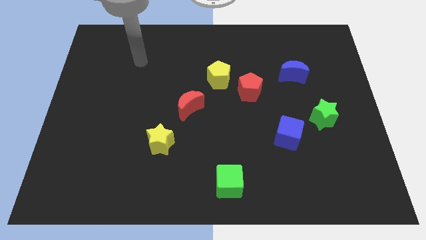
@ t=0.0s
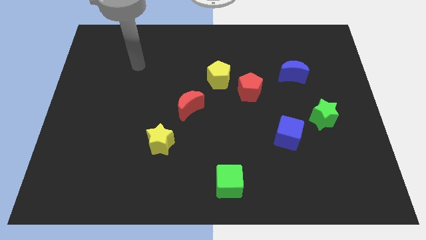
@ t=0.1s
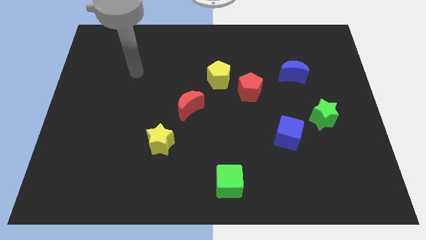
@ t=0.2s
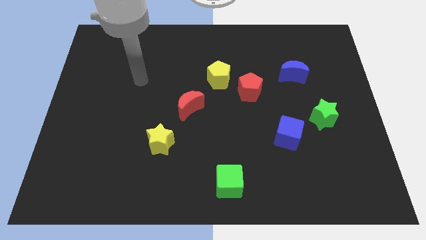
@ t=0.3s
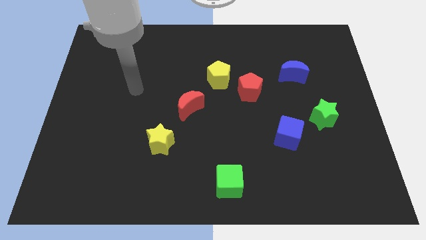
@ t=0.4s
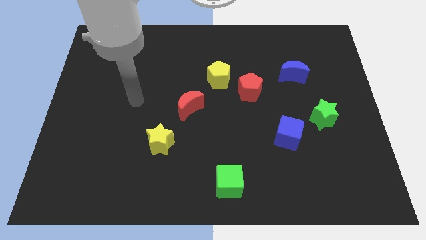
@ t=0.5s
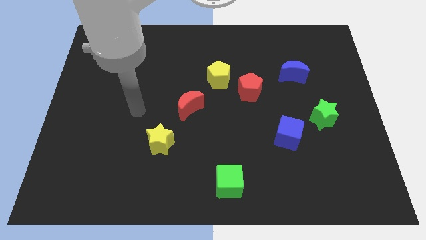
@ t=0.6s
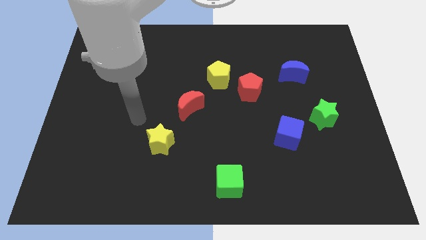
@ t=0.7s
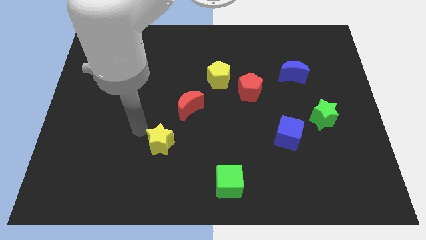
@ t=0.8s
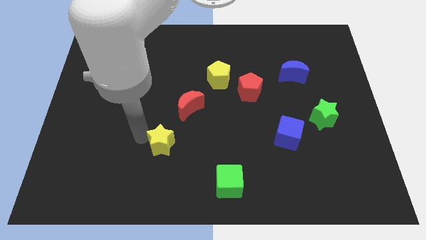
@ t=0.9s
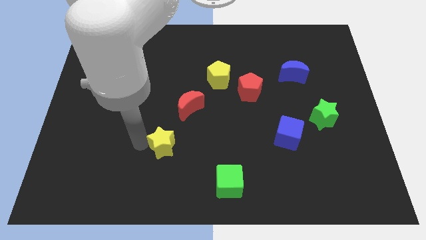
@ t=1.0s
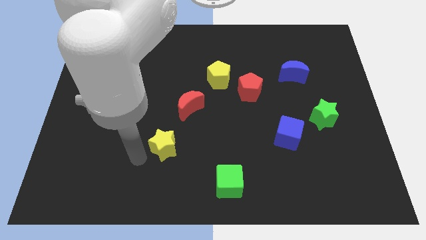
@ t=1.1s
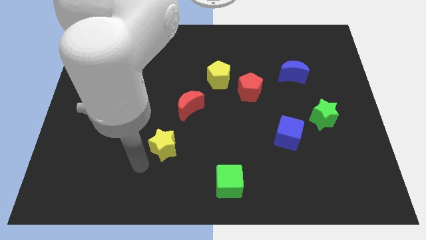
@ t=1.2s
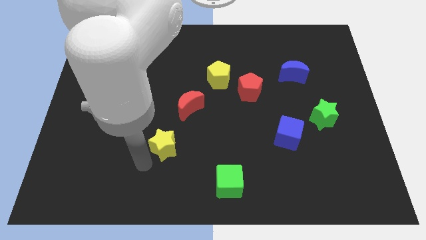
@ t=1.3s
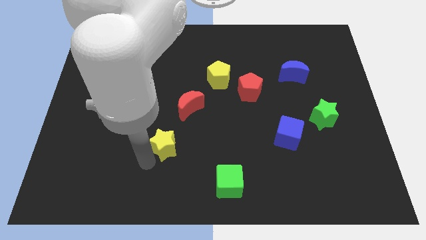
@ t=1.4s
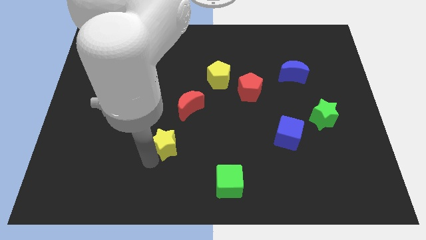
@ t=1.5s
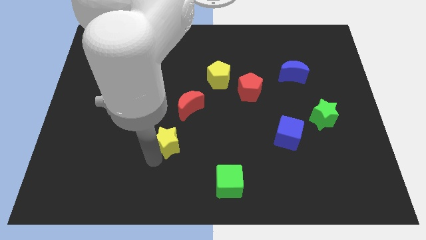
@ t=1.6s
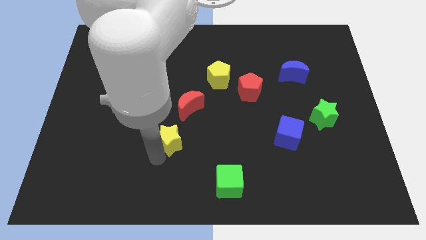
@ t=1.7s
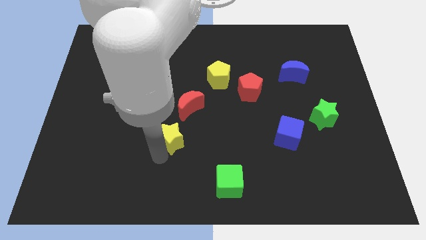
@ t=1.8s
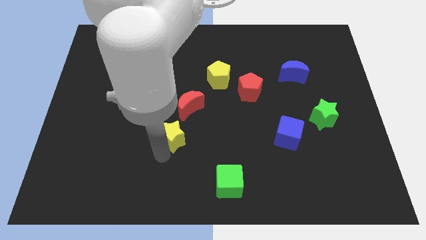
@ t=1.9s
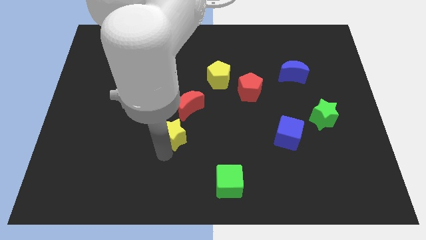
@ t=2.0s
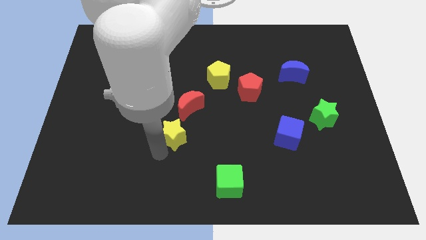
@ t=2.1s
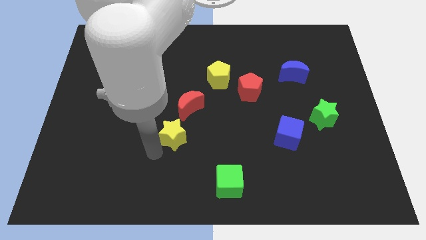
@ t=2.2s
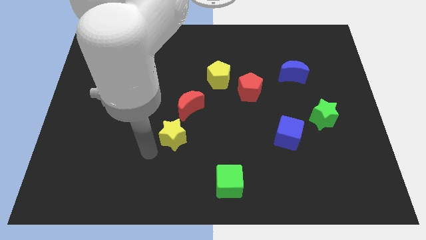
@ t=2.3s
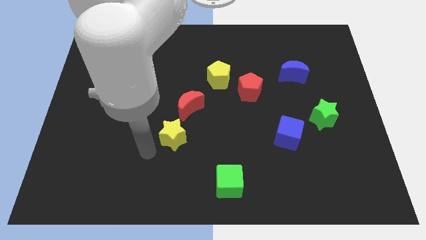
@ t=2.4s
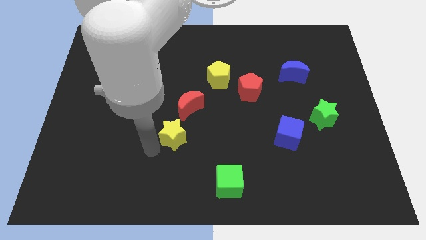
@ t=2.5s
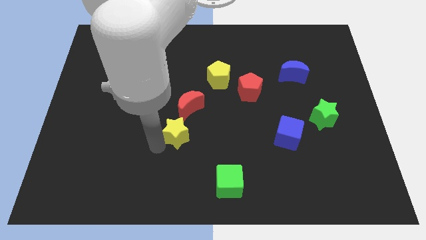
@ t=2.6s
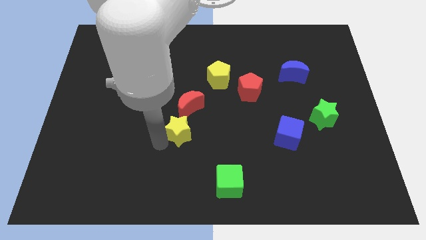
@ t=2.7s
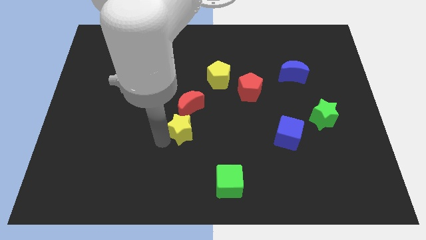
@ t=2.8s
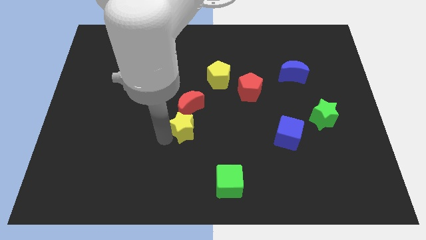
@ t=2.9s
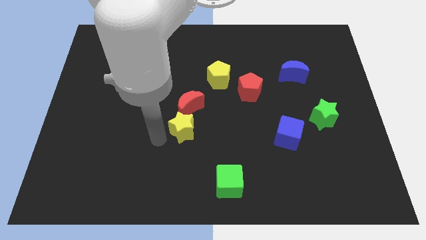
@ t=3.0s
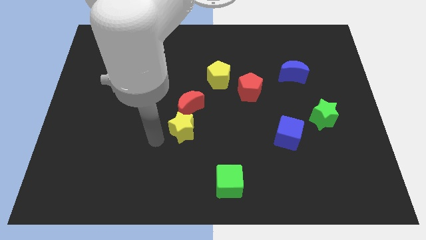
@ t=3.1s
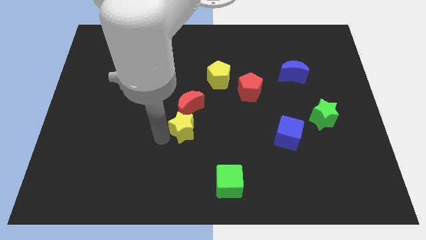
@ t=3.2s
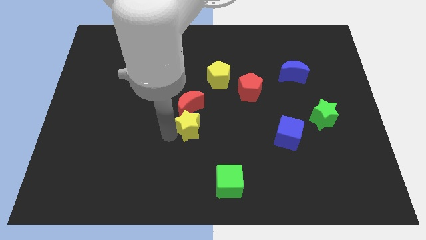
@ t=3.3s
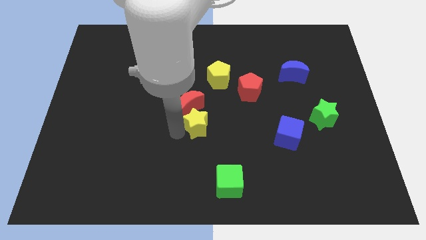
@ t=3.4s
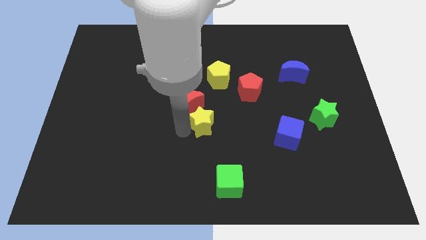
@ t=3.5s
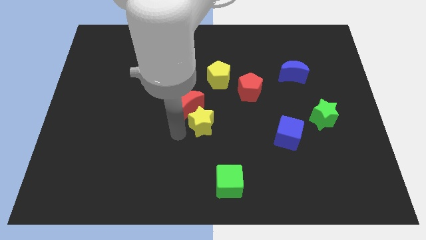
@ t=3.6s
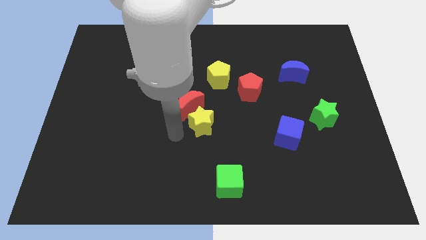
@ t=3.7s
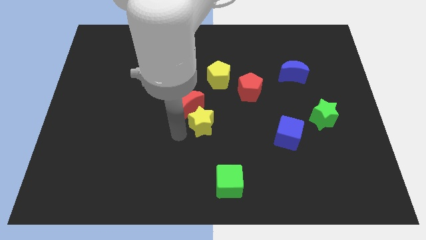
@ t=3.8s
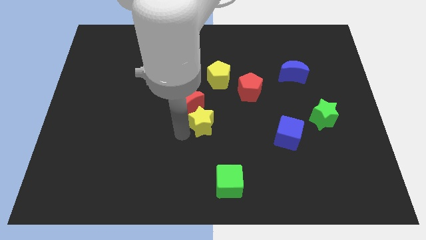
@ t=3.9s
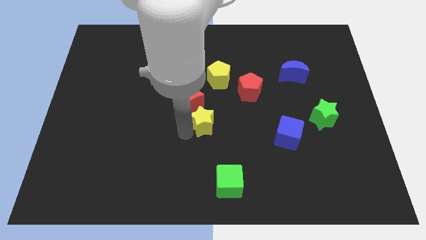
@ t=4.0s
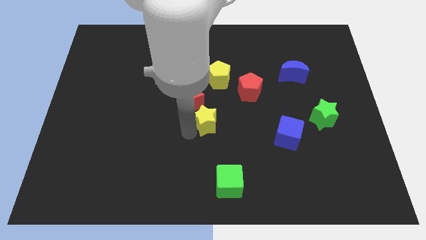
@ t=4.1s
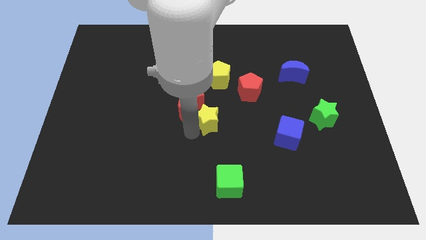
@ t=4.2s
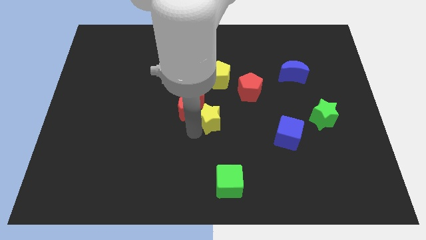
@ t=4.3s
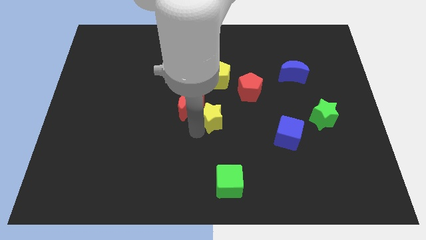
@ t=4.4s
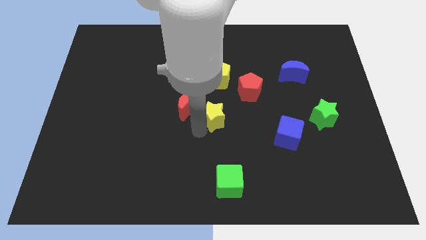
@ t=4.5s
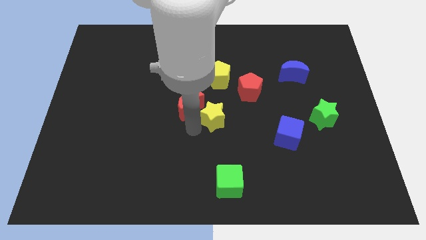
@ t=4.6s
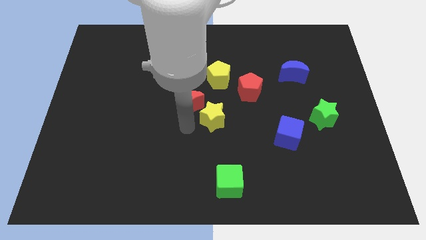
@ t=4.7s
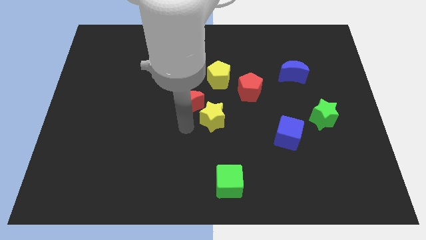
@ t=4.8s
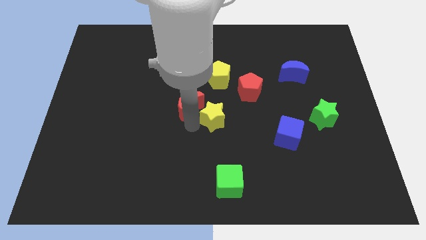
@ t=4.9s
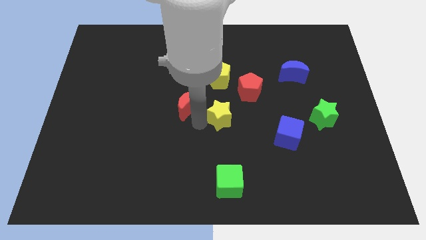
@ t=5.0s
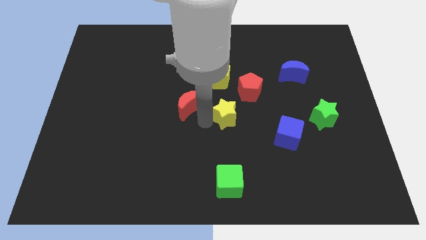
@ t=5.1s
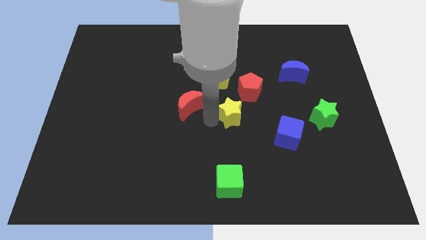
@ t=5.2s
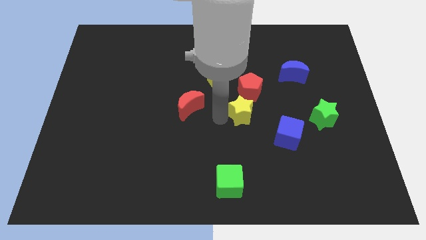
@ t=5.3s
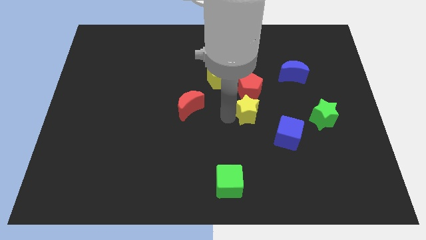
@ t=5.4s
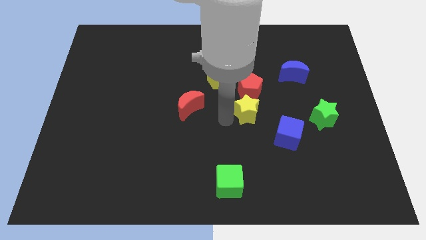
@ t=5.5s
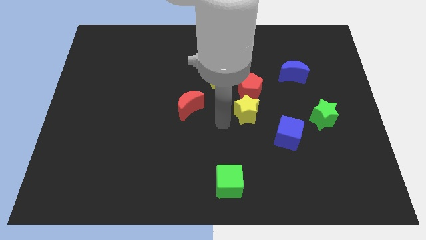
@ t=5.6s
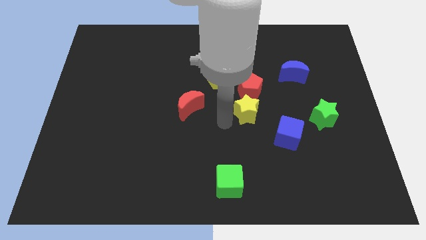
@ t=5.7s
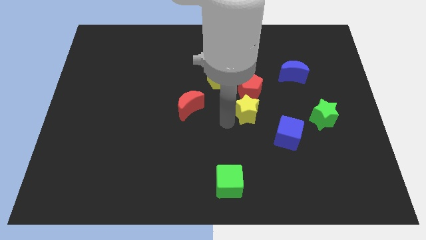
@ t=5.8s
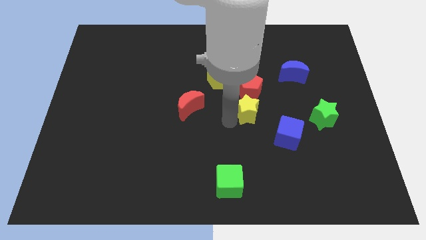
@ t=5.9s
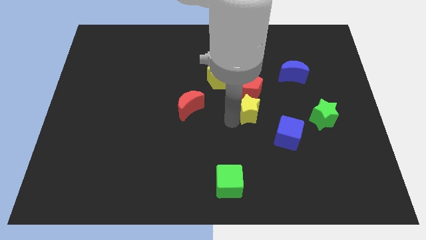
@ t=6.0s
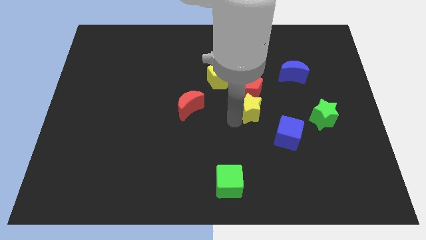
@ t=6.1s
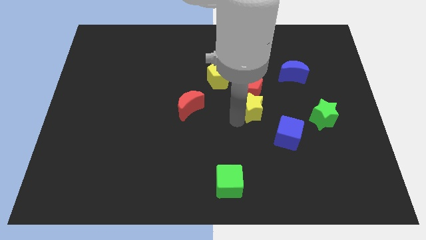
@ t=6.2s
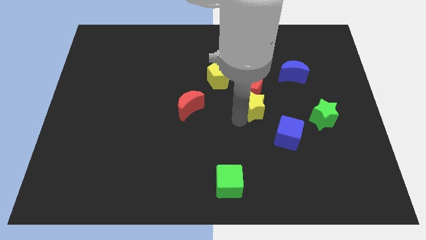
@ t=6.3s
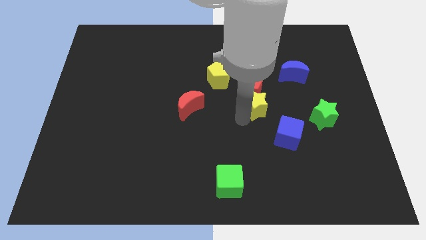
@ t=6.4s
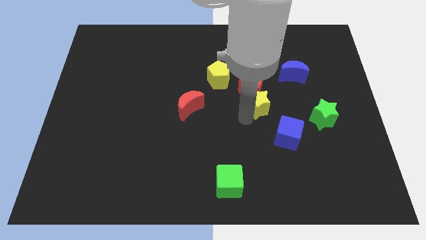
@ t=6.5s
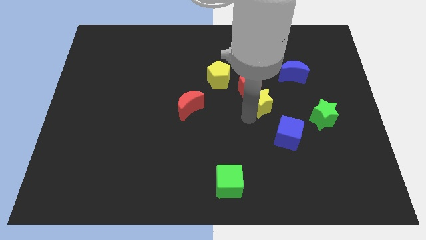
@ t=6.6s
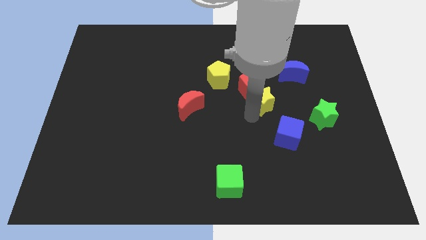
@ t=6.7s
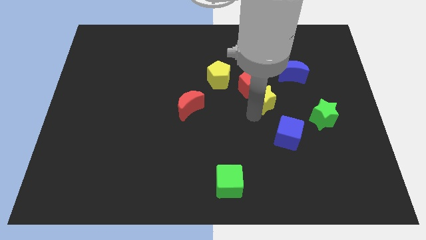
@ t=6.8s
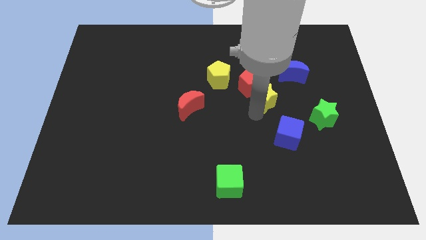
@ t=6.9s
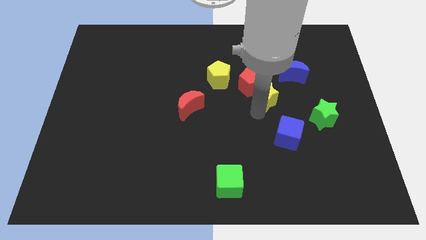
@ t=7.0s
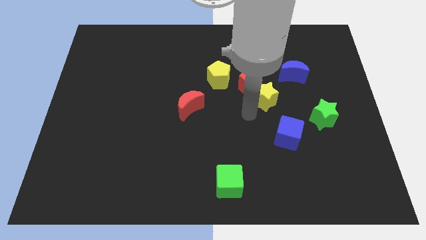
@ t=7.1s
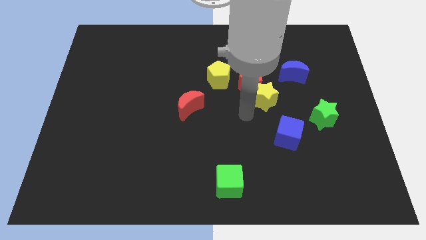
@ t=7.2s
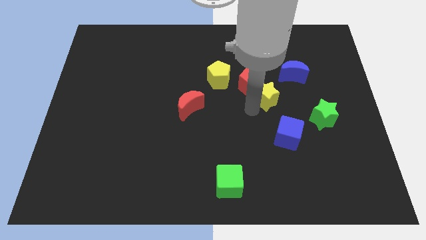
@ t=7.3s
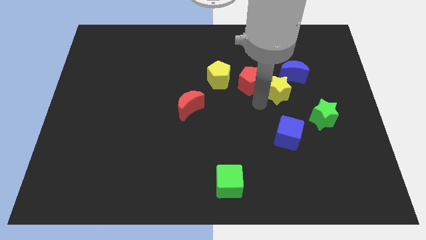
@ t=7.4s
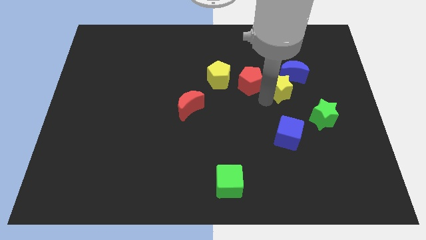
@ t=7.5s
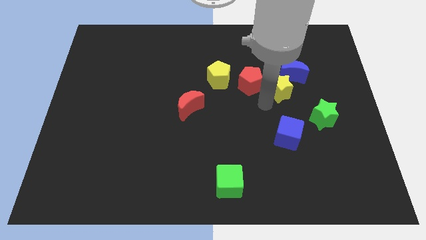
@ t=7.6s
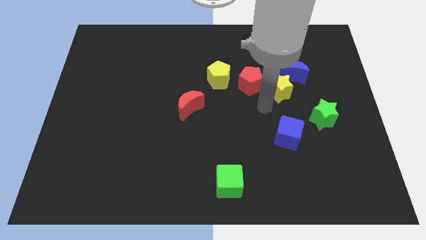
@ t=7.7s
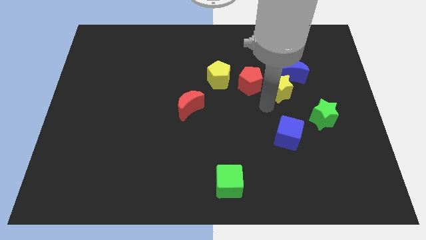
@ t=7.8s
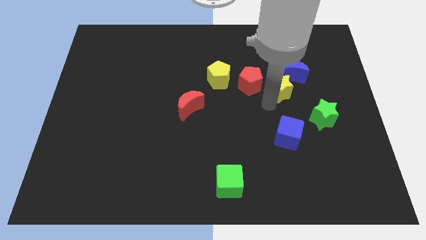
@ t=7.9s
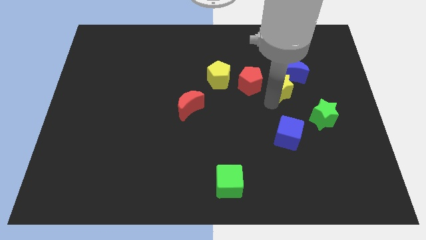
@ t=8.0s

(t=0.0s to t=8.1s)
slide the yellow star to the blue moon
